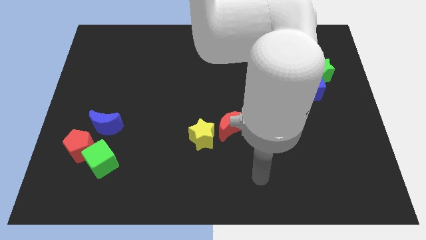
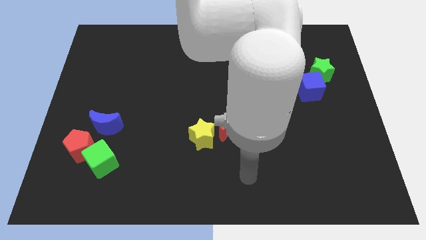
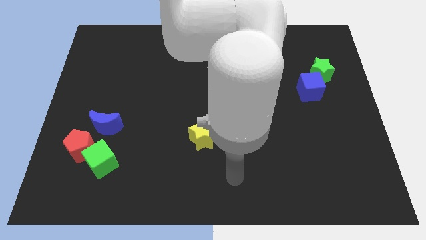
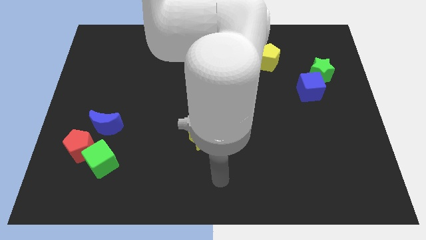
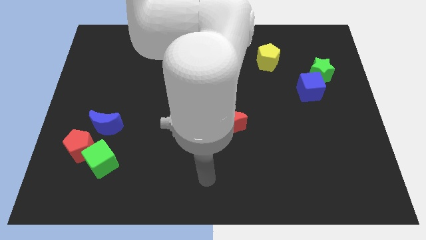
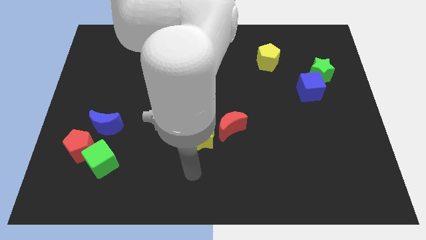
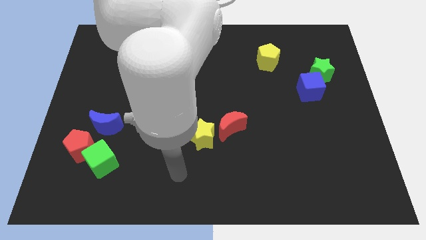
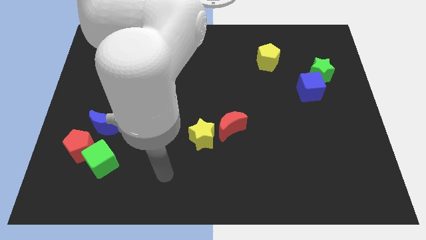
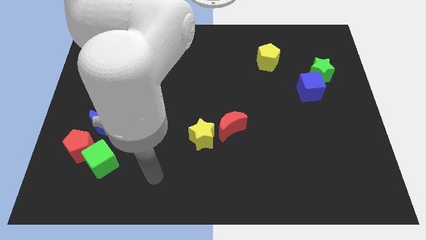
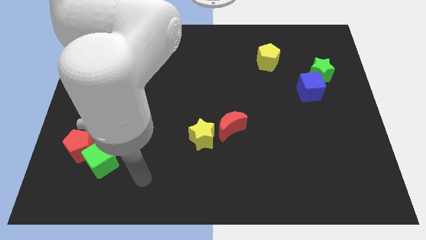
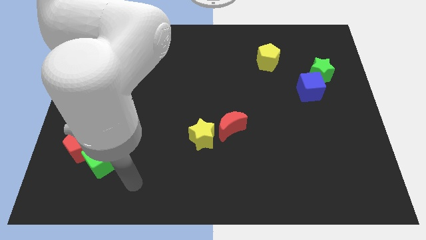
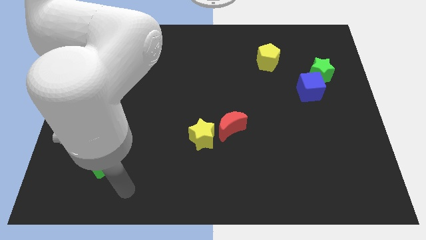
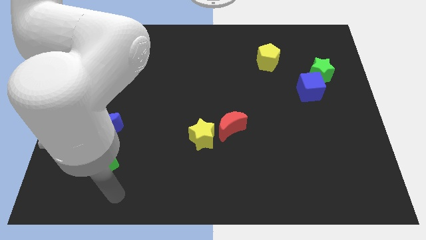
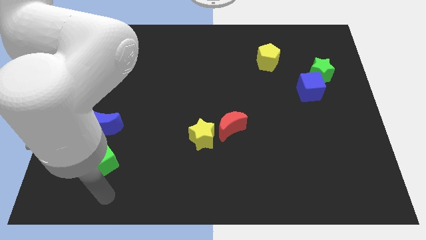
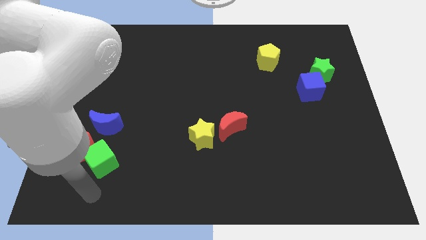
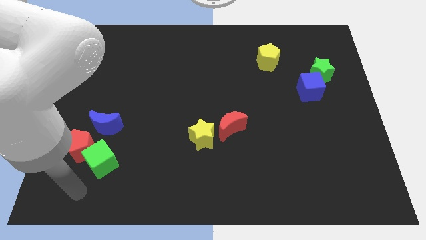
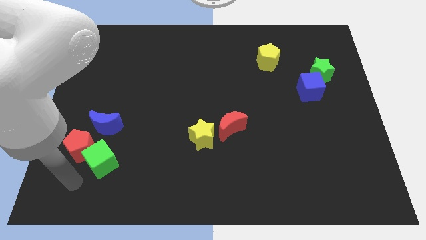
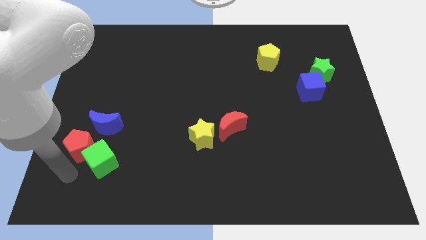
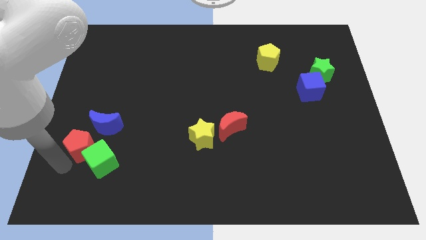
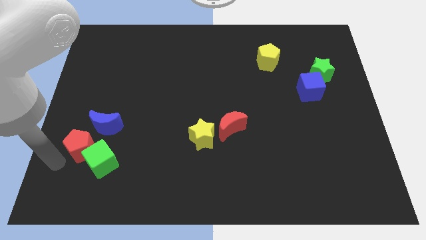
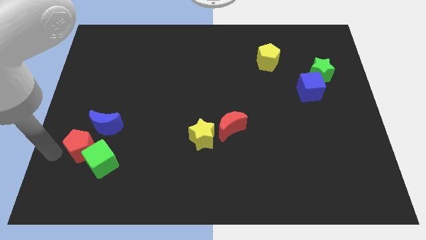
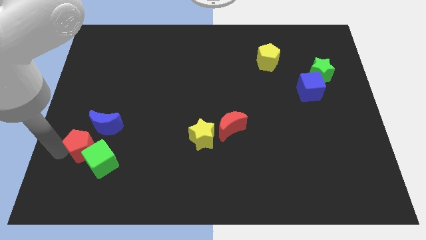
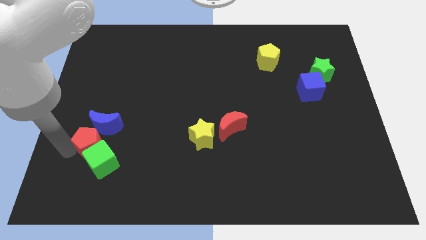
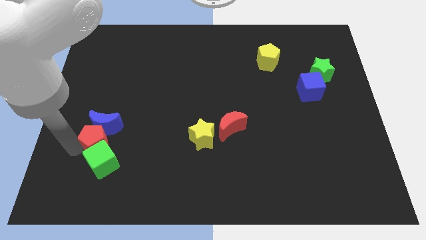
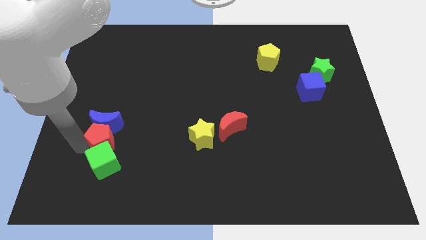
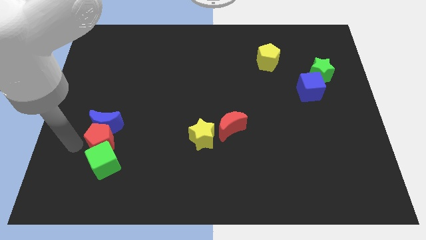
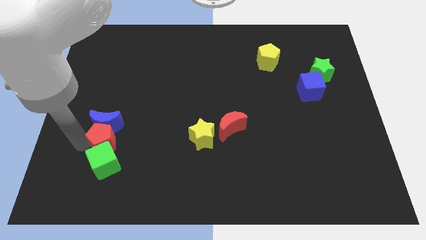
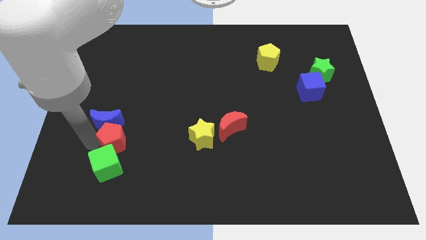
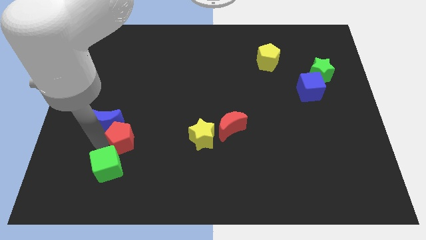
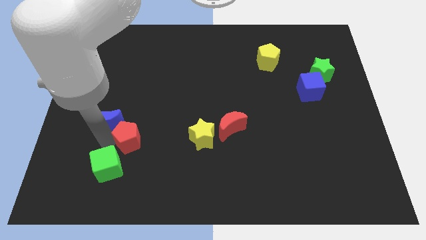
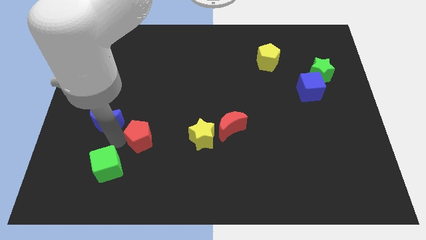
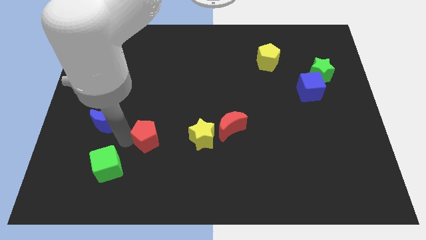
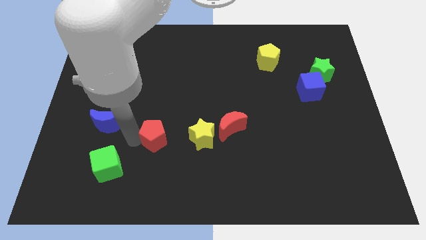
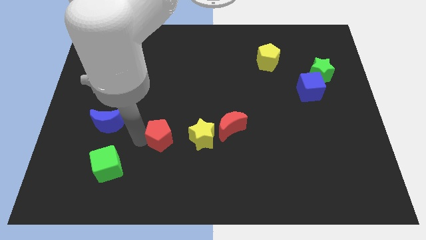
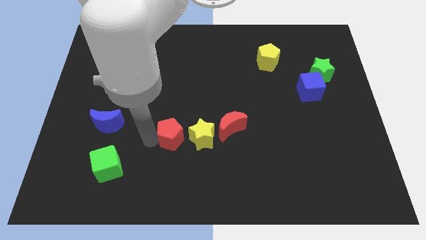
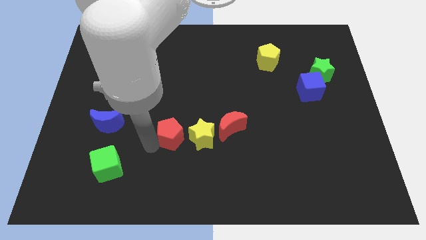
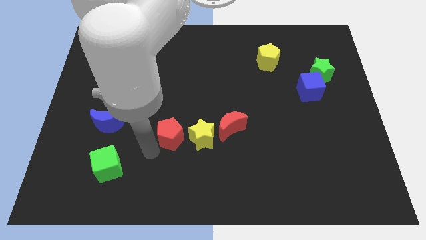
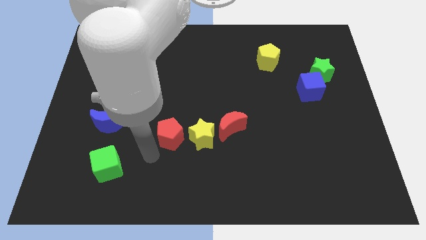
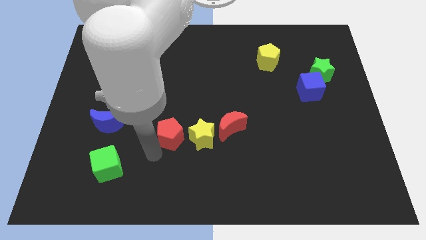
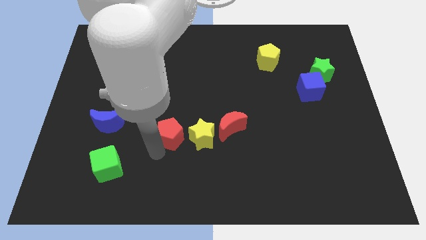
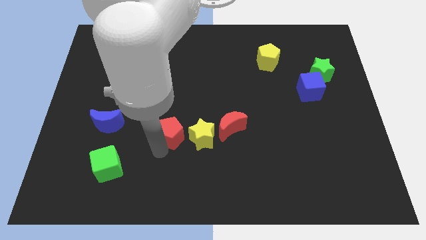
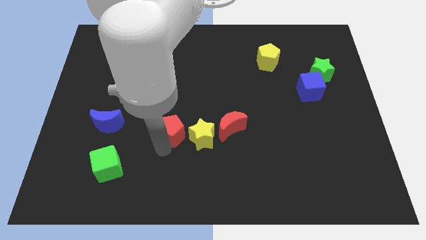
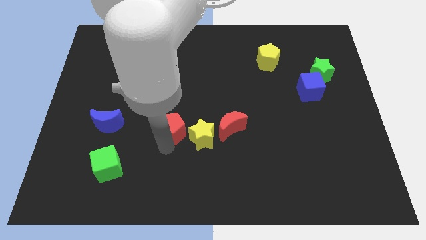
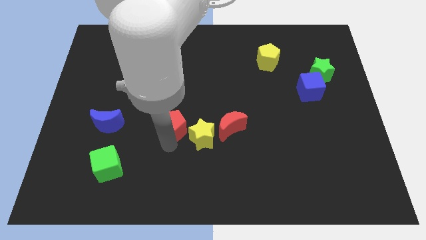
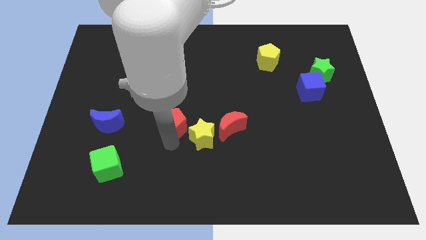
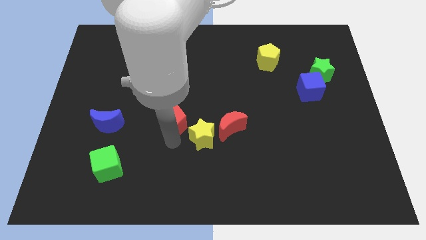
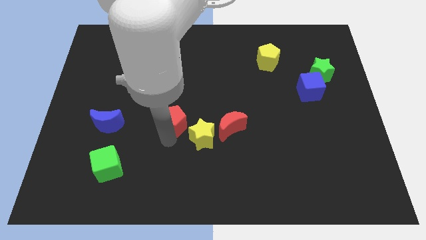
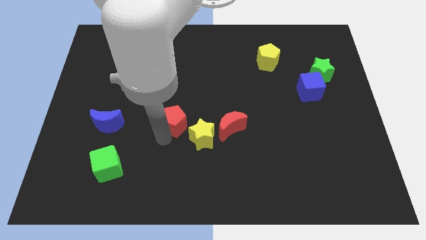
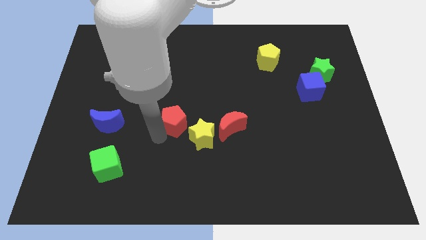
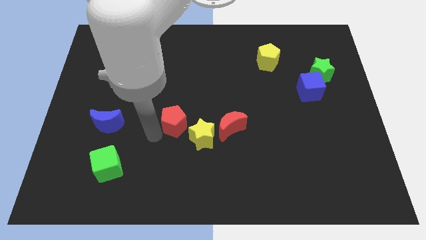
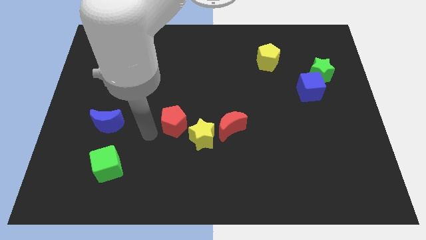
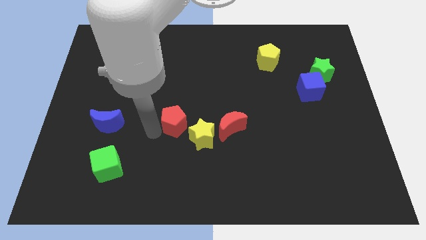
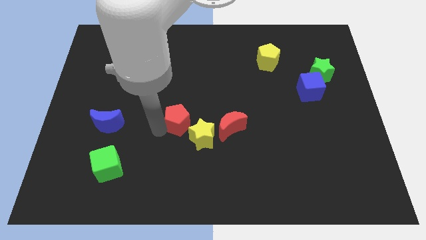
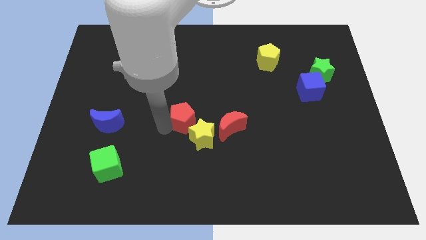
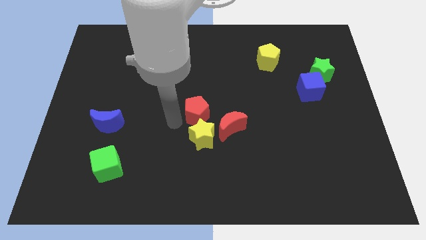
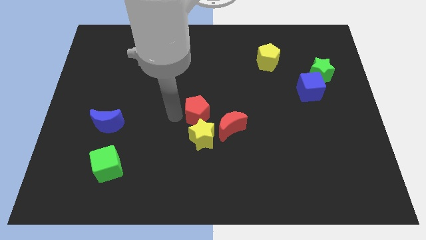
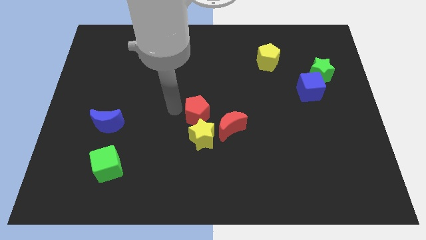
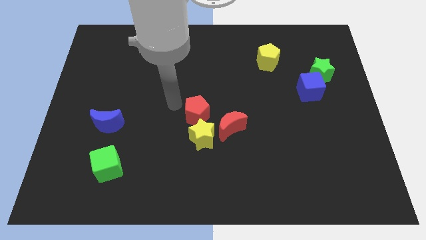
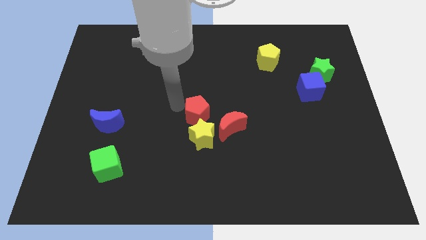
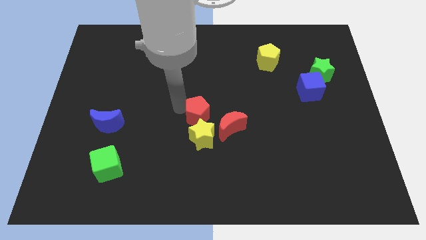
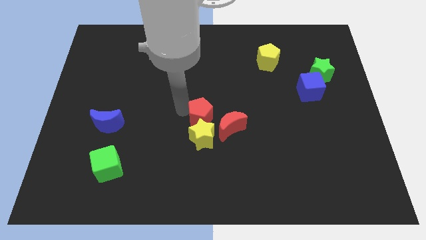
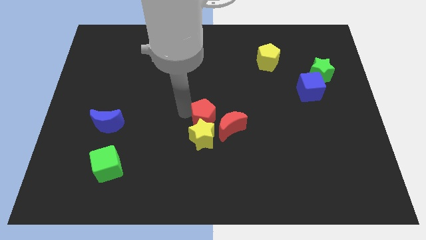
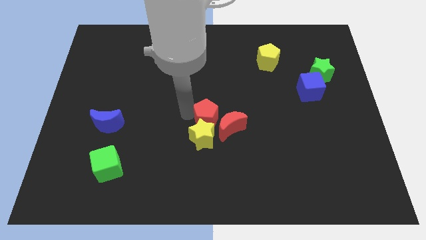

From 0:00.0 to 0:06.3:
slide the red pentagon towards the red moon
